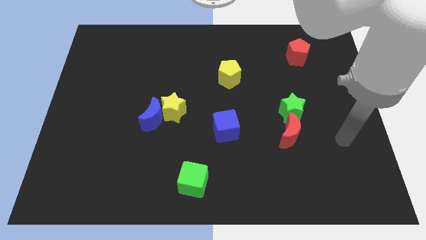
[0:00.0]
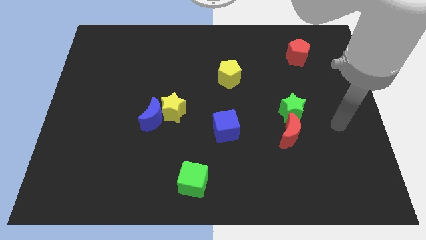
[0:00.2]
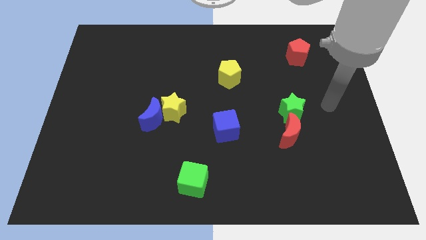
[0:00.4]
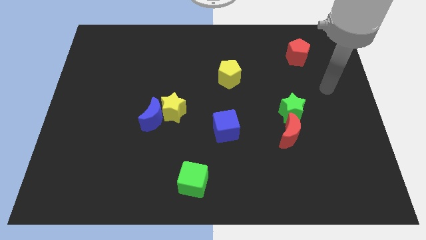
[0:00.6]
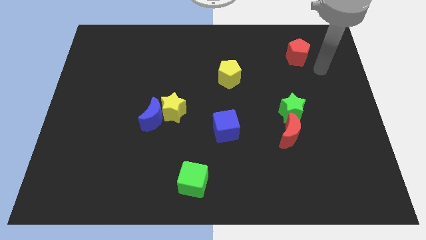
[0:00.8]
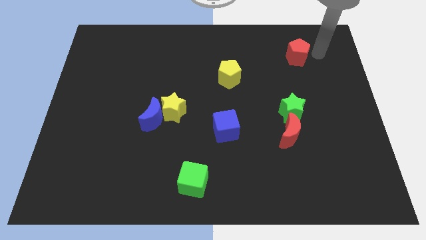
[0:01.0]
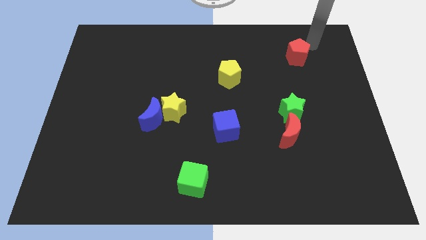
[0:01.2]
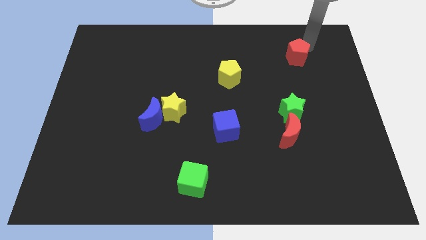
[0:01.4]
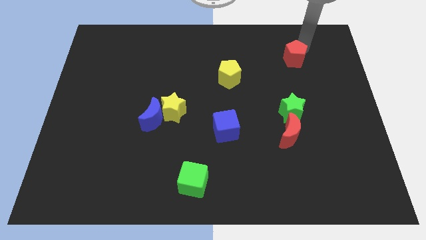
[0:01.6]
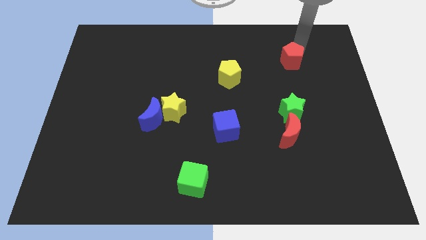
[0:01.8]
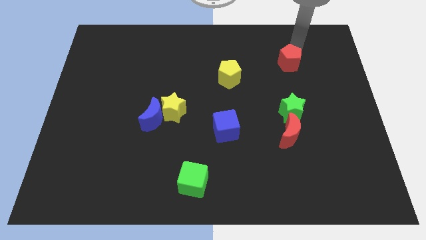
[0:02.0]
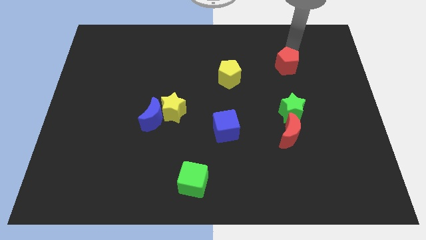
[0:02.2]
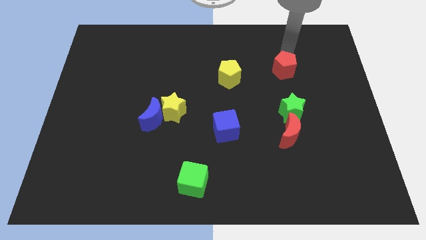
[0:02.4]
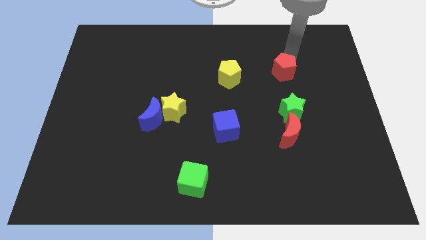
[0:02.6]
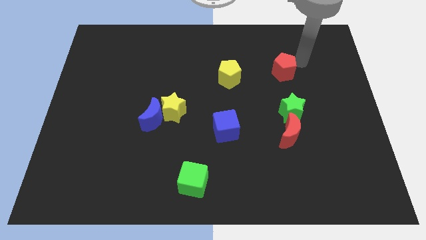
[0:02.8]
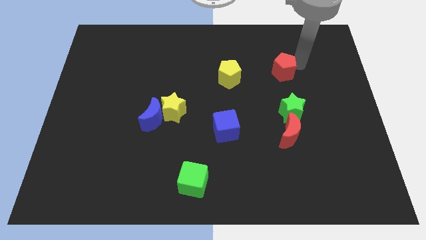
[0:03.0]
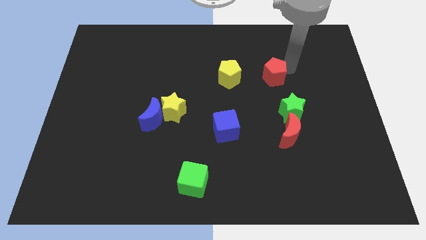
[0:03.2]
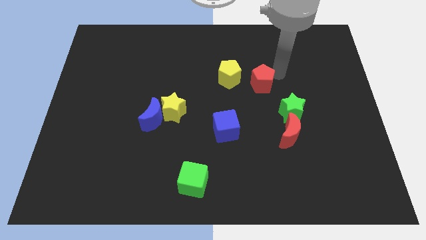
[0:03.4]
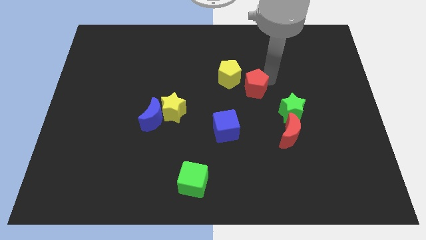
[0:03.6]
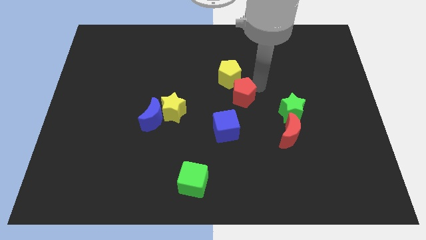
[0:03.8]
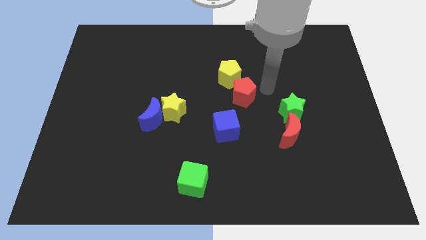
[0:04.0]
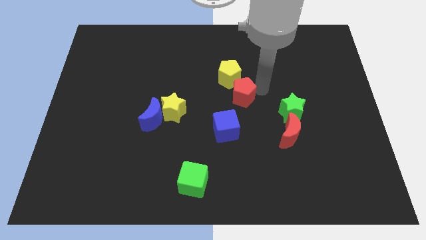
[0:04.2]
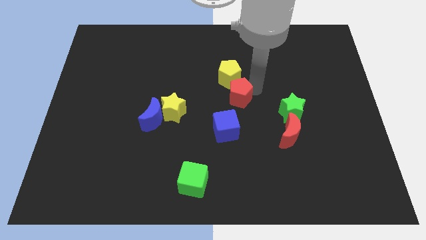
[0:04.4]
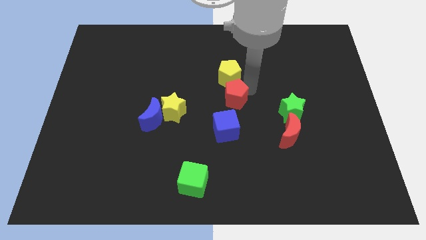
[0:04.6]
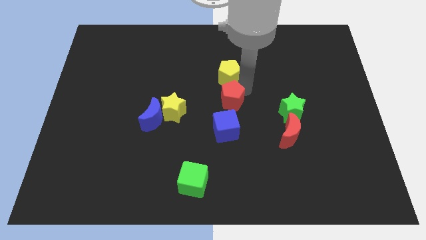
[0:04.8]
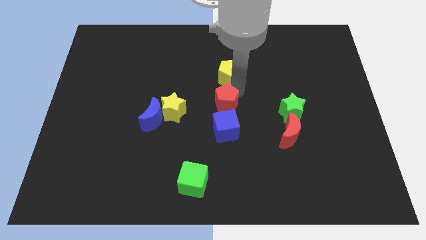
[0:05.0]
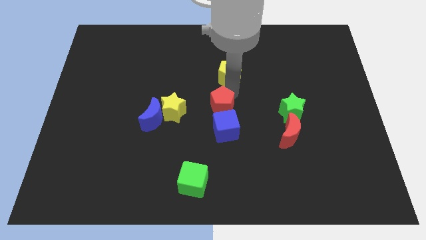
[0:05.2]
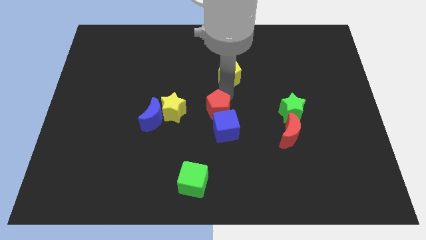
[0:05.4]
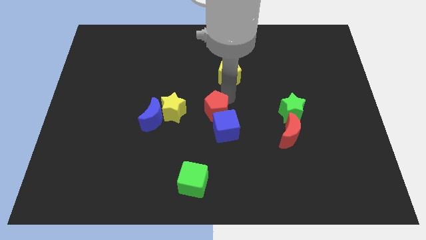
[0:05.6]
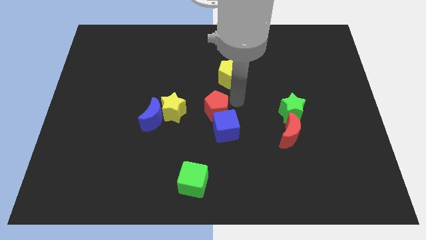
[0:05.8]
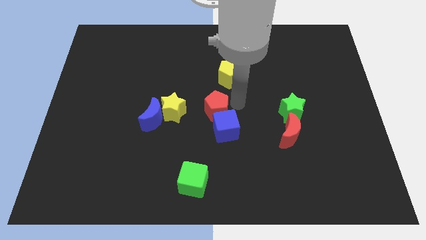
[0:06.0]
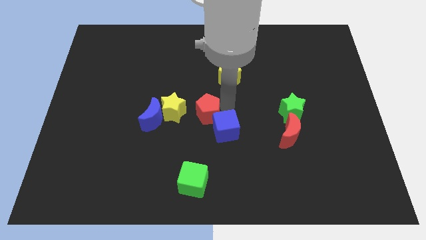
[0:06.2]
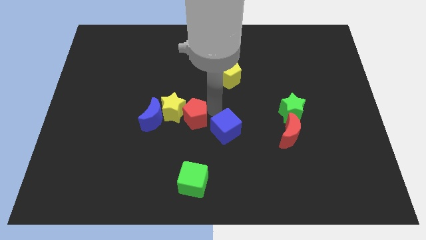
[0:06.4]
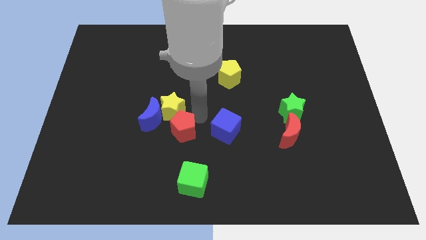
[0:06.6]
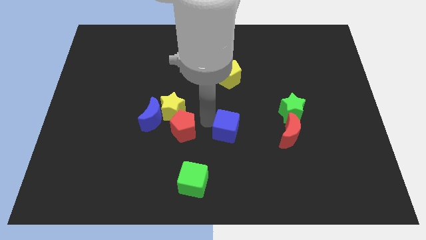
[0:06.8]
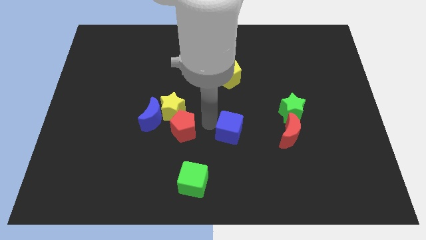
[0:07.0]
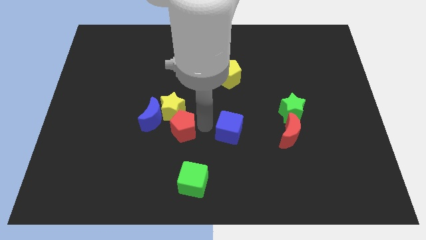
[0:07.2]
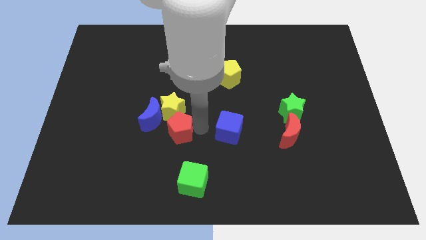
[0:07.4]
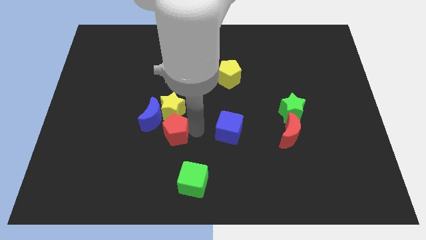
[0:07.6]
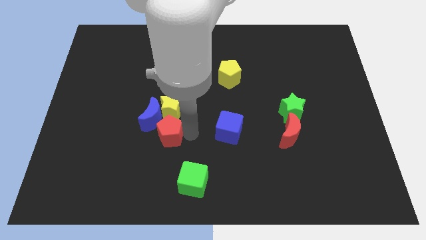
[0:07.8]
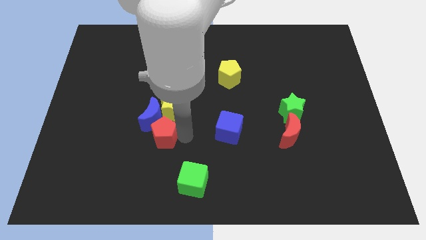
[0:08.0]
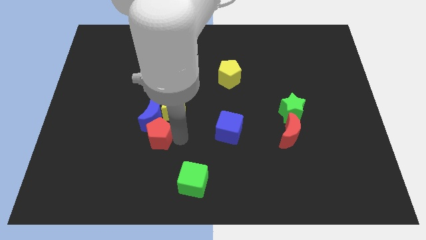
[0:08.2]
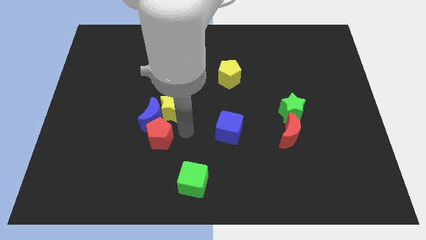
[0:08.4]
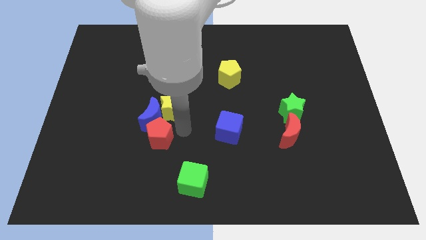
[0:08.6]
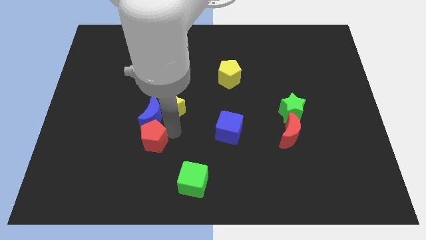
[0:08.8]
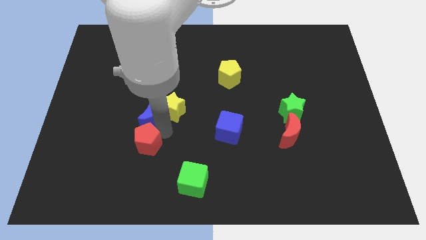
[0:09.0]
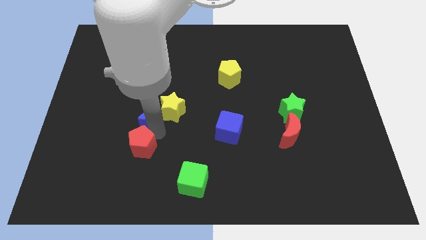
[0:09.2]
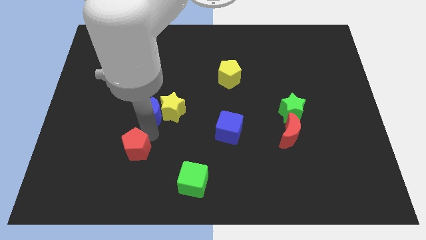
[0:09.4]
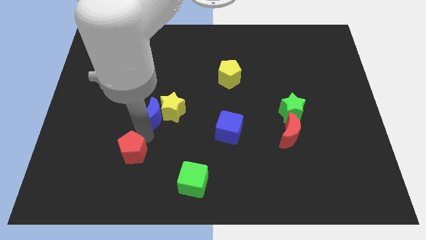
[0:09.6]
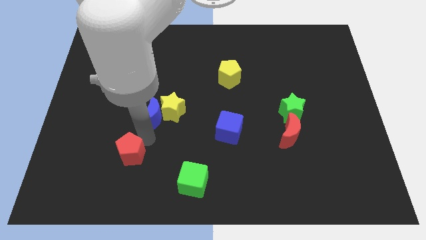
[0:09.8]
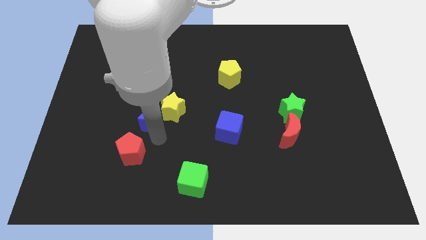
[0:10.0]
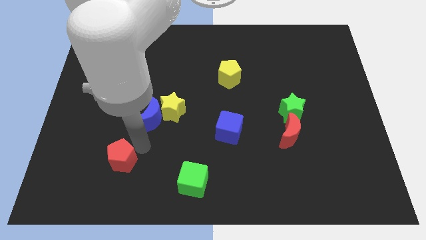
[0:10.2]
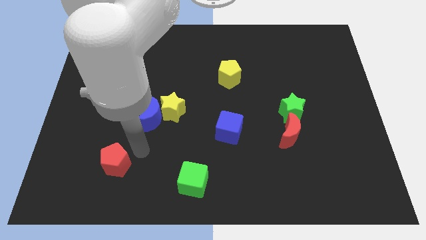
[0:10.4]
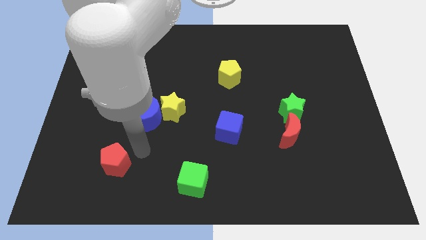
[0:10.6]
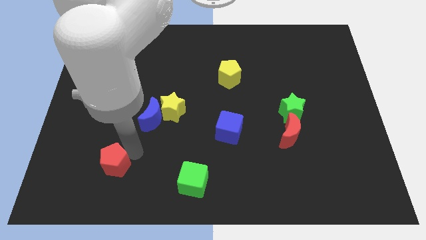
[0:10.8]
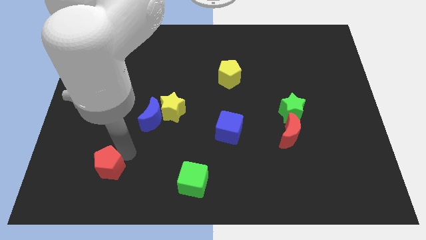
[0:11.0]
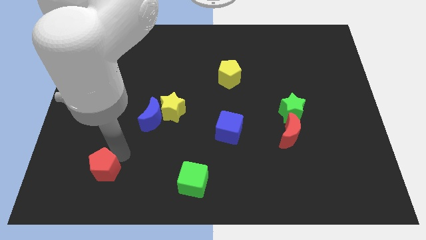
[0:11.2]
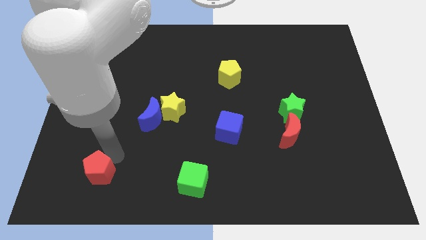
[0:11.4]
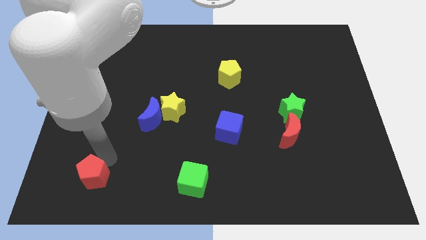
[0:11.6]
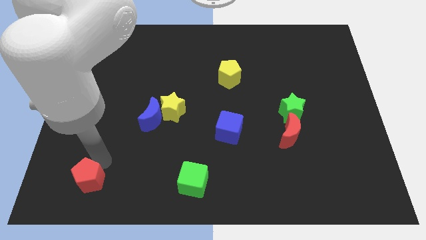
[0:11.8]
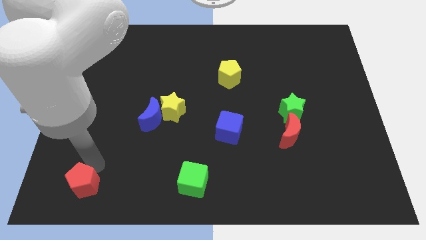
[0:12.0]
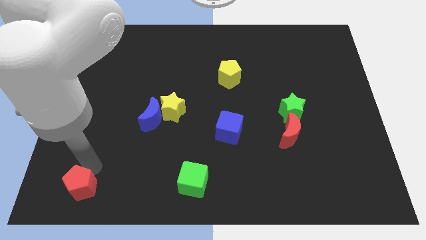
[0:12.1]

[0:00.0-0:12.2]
push the red pentagon to the bottom left
